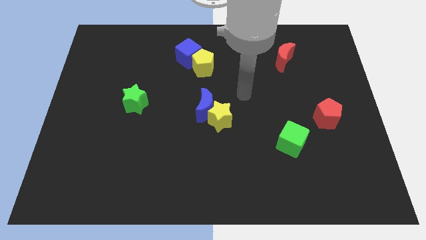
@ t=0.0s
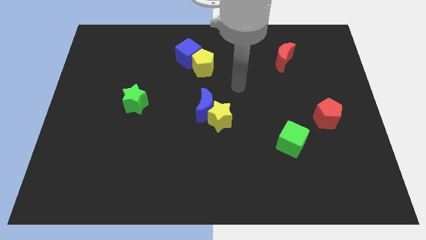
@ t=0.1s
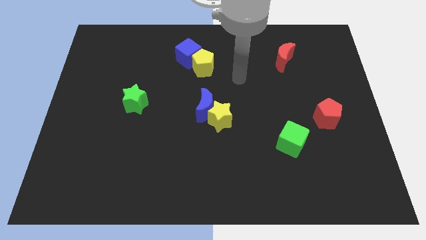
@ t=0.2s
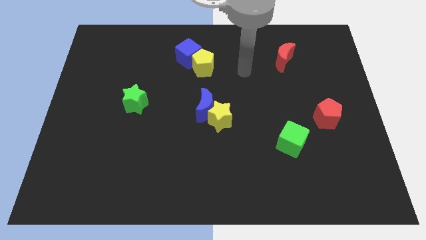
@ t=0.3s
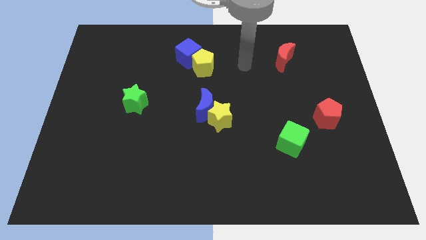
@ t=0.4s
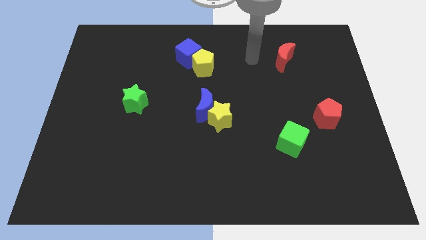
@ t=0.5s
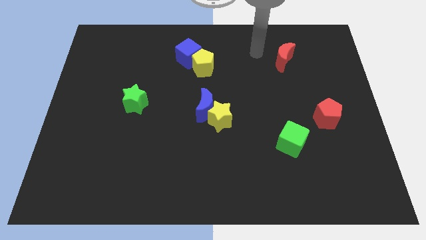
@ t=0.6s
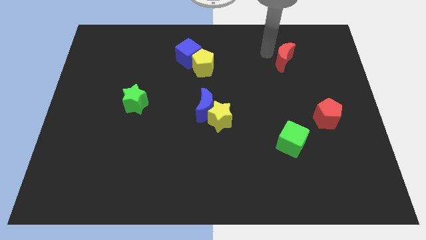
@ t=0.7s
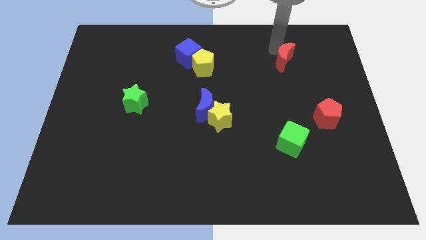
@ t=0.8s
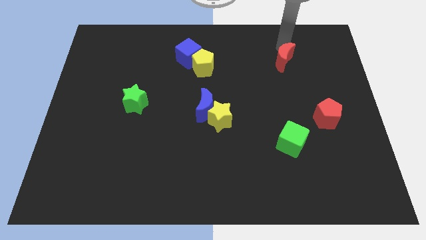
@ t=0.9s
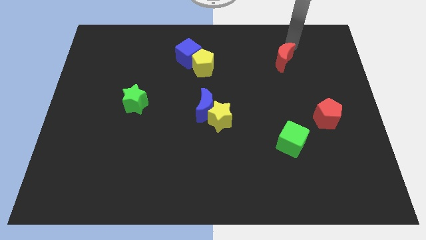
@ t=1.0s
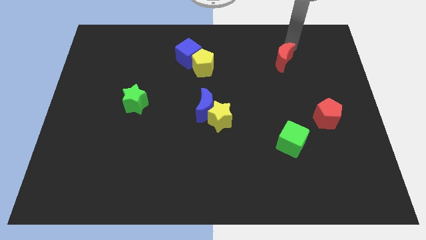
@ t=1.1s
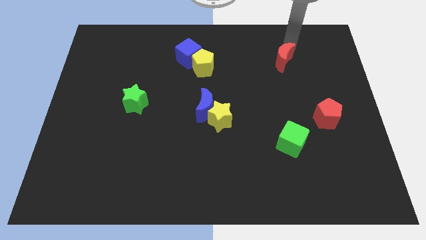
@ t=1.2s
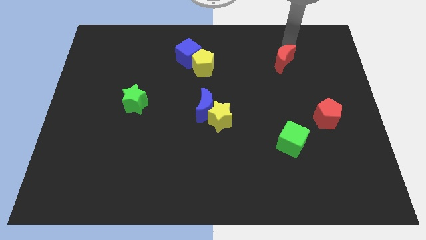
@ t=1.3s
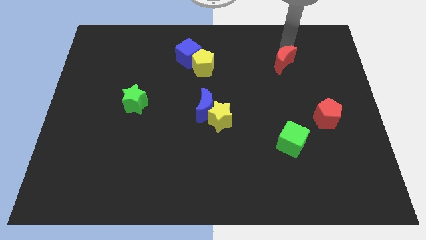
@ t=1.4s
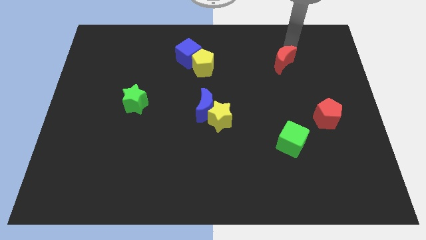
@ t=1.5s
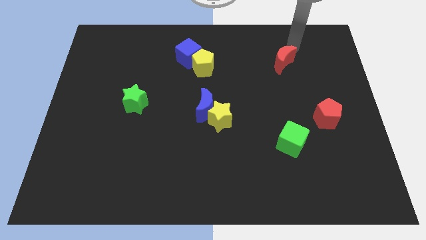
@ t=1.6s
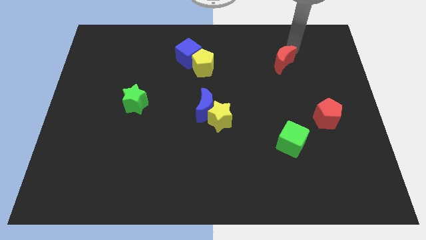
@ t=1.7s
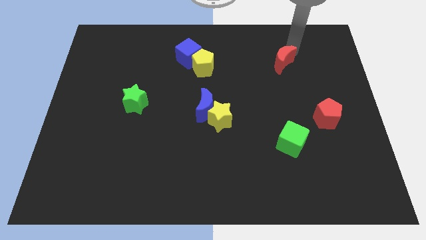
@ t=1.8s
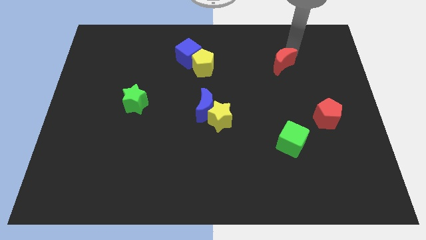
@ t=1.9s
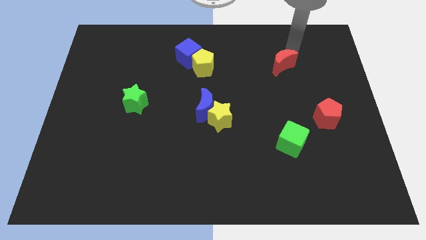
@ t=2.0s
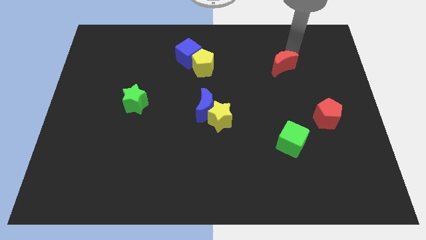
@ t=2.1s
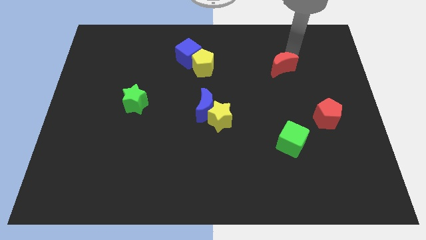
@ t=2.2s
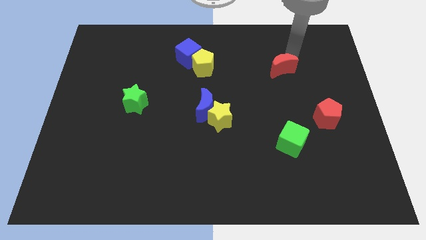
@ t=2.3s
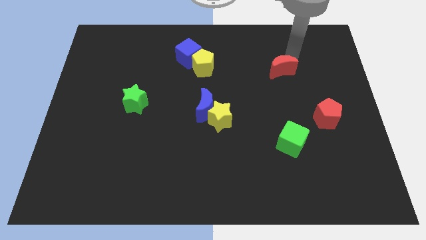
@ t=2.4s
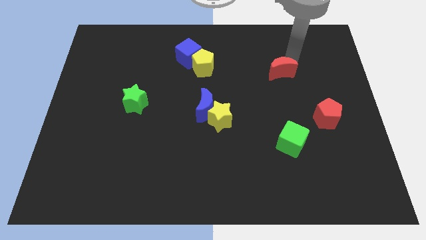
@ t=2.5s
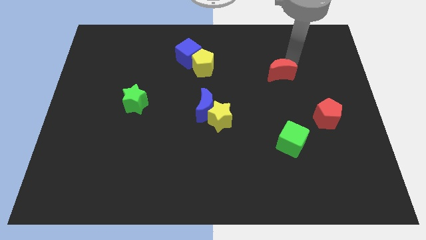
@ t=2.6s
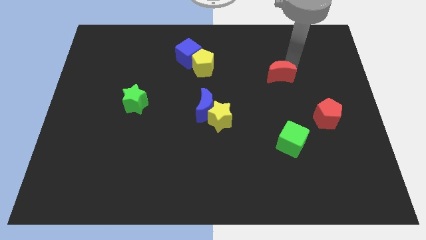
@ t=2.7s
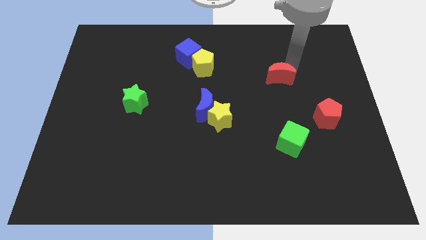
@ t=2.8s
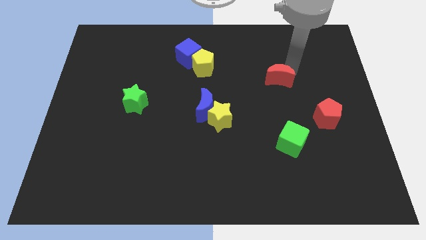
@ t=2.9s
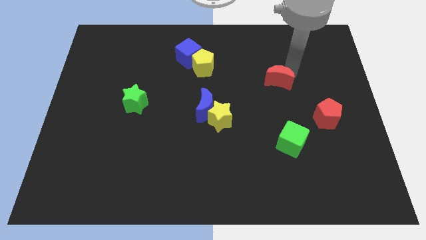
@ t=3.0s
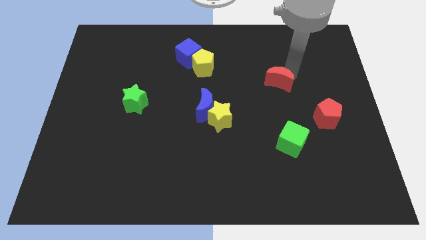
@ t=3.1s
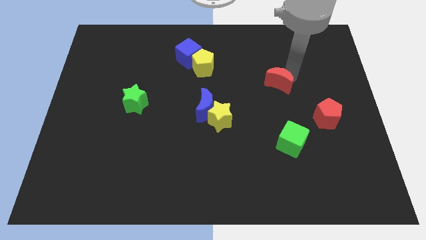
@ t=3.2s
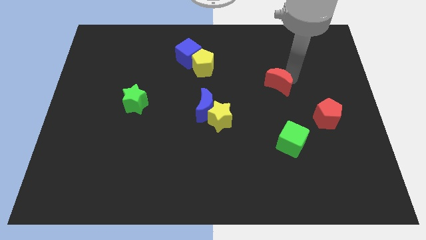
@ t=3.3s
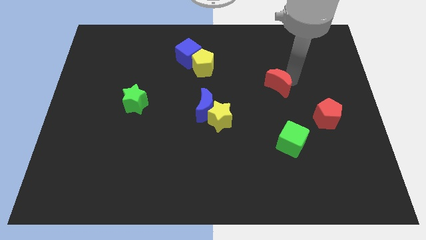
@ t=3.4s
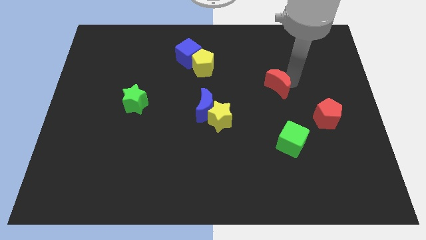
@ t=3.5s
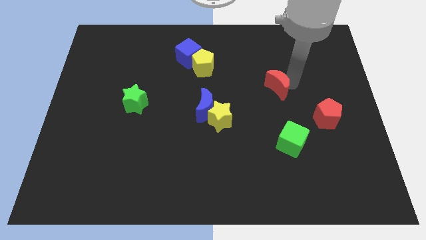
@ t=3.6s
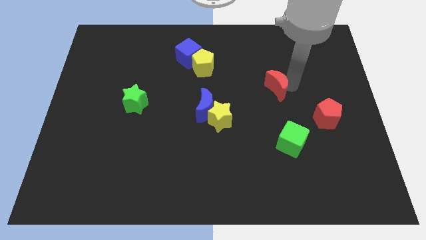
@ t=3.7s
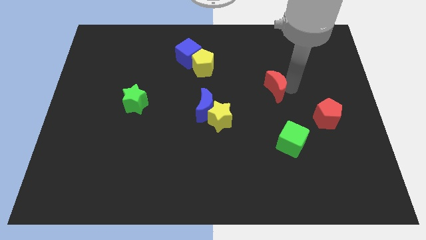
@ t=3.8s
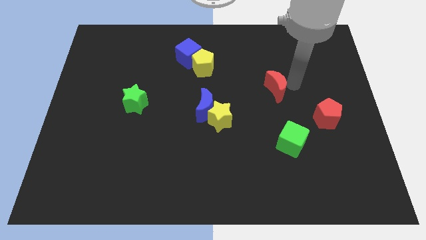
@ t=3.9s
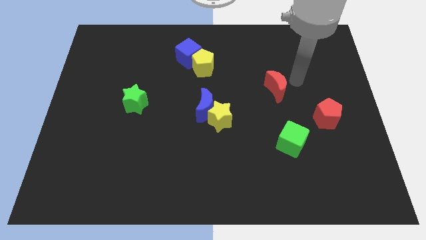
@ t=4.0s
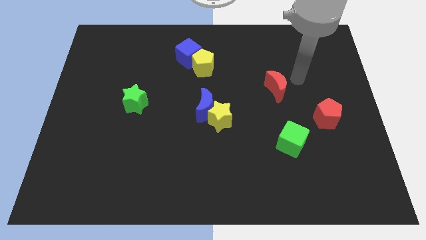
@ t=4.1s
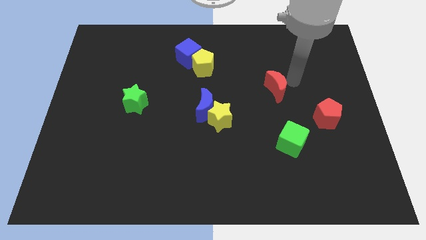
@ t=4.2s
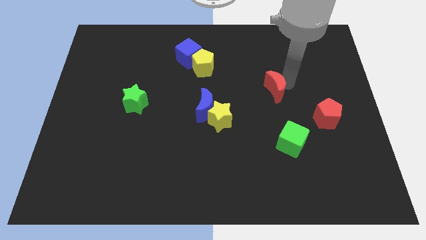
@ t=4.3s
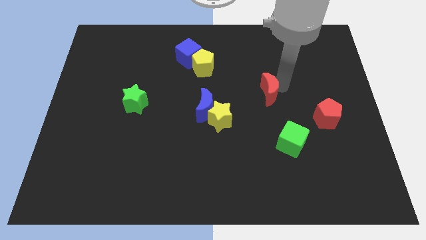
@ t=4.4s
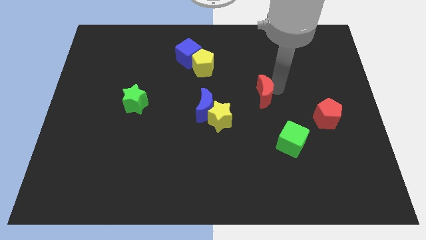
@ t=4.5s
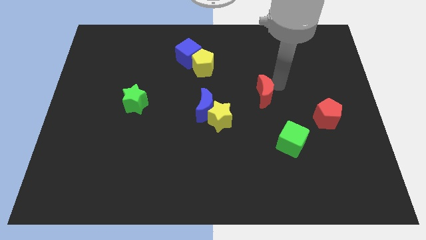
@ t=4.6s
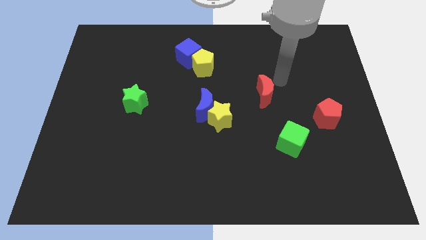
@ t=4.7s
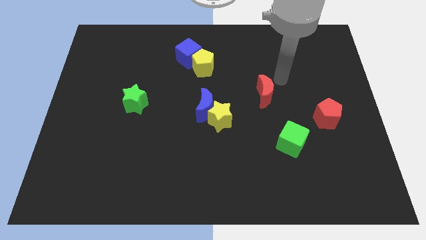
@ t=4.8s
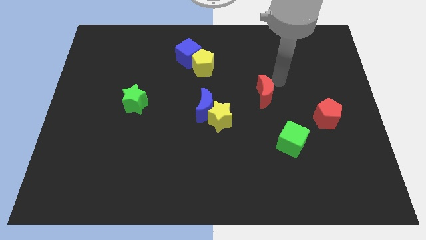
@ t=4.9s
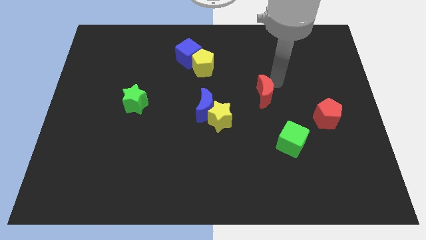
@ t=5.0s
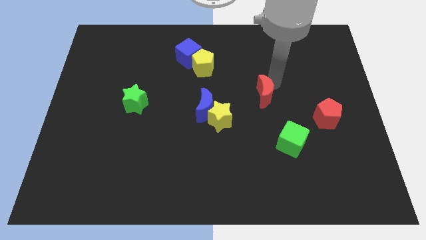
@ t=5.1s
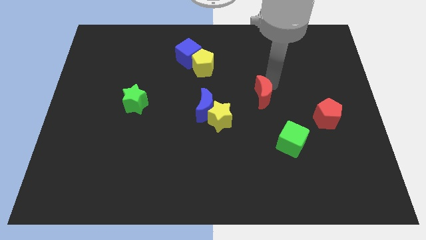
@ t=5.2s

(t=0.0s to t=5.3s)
put the red moon to the right side of the blue moon

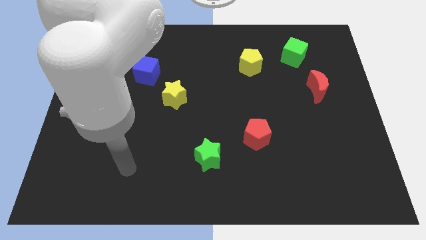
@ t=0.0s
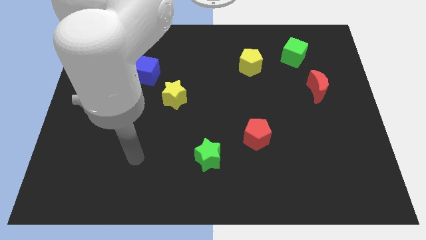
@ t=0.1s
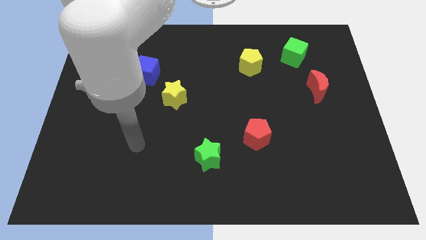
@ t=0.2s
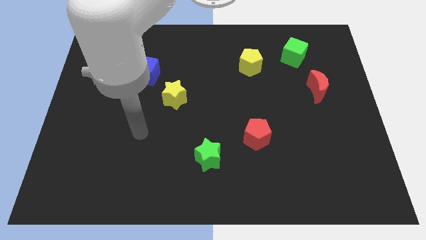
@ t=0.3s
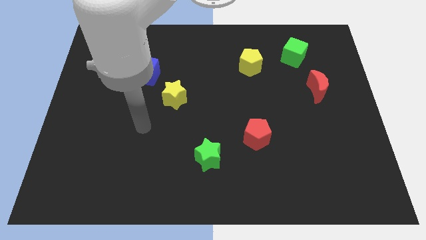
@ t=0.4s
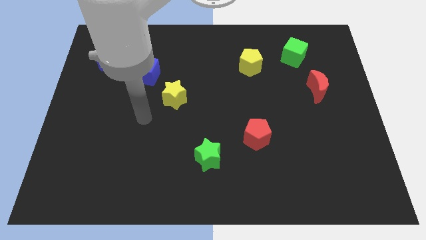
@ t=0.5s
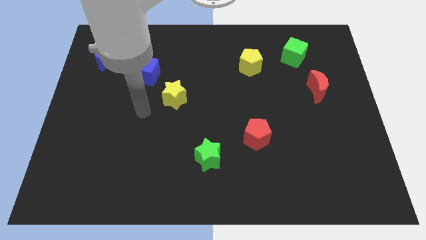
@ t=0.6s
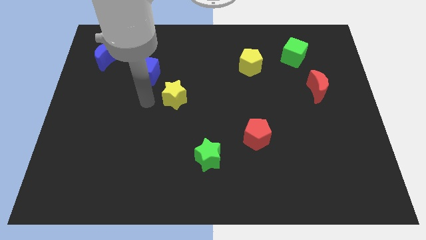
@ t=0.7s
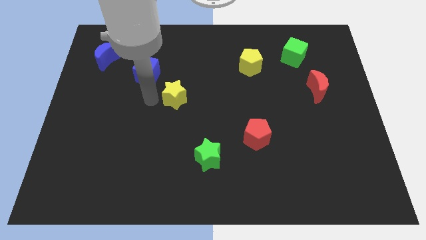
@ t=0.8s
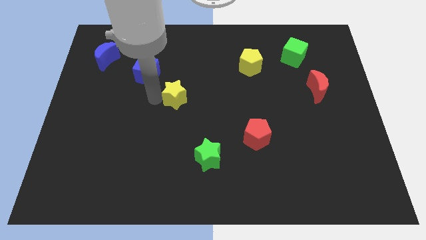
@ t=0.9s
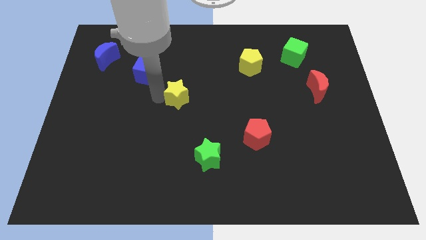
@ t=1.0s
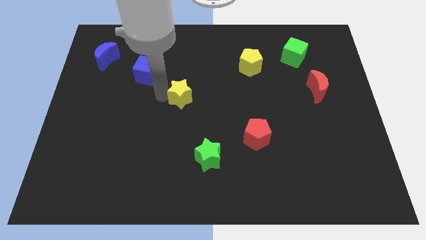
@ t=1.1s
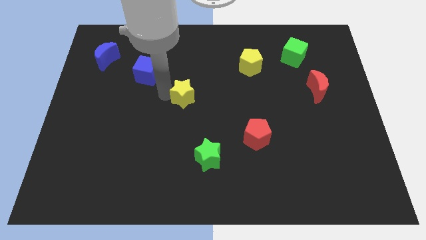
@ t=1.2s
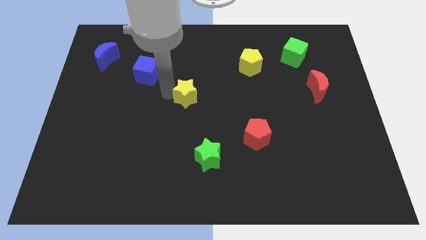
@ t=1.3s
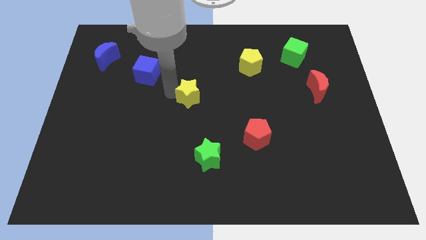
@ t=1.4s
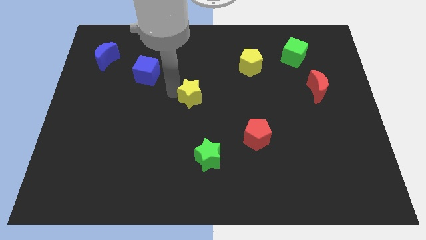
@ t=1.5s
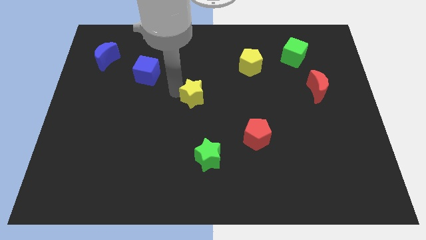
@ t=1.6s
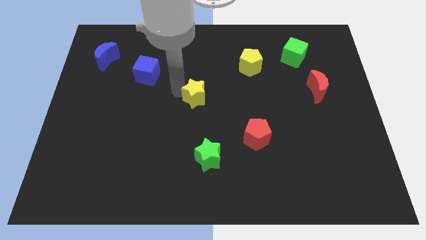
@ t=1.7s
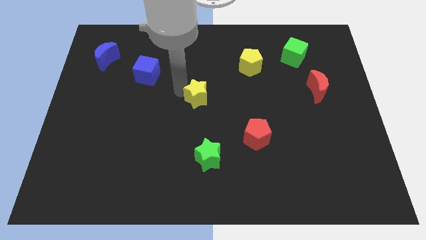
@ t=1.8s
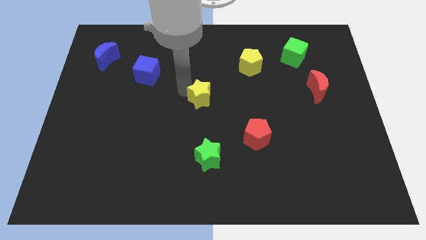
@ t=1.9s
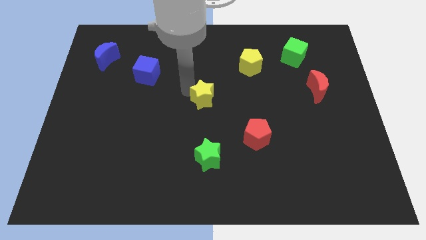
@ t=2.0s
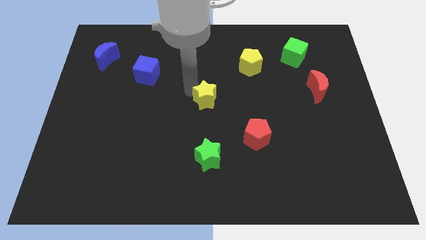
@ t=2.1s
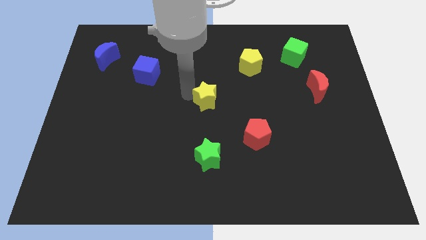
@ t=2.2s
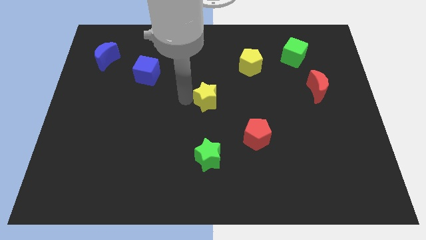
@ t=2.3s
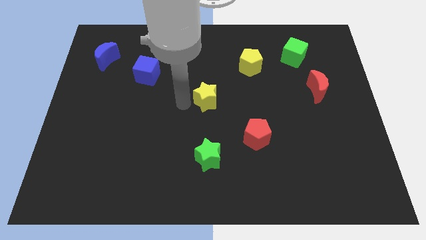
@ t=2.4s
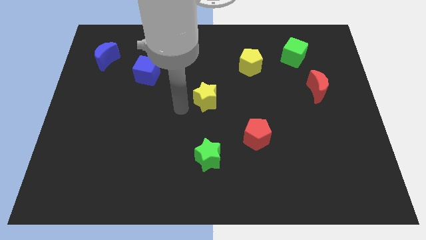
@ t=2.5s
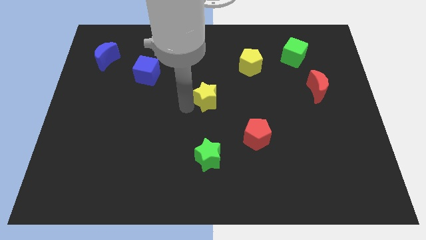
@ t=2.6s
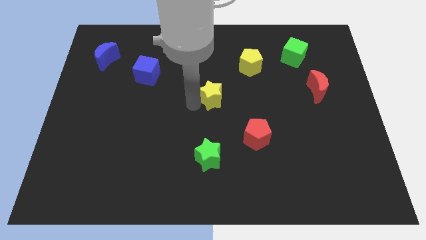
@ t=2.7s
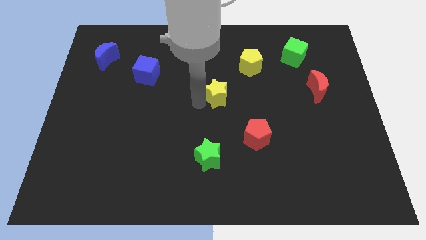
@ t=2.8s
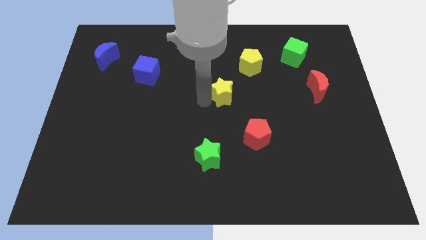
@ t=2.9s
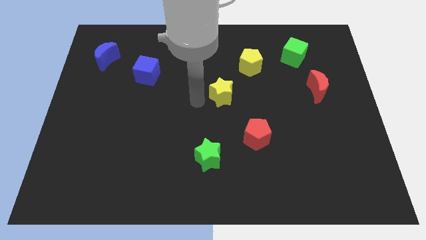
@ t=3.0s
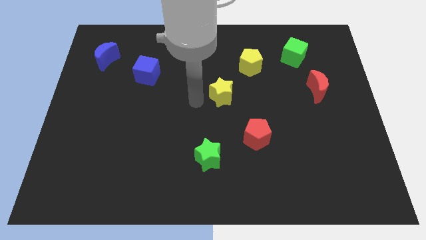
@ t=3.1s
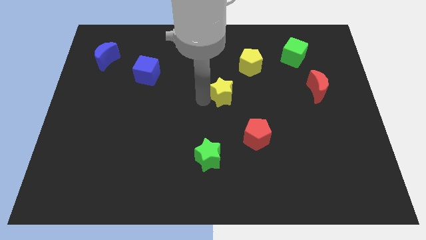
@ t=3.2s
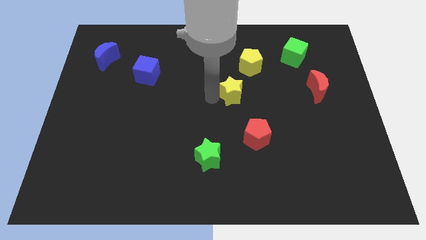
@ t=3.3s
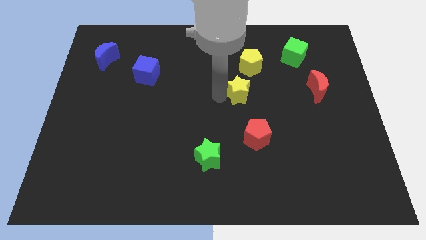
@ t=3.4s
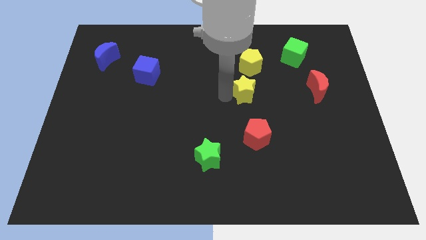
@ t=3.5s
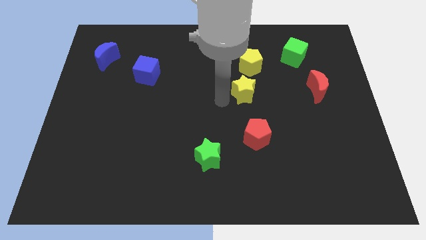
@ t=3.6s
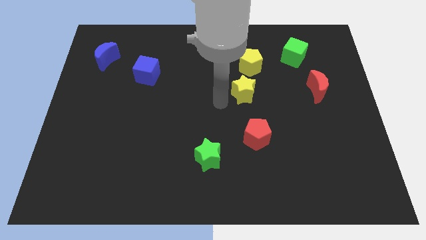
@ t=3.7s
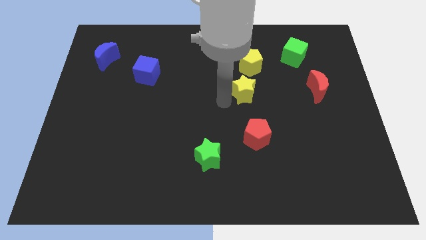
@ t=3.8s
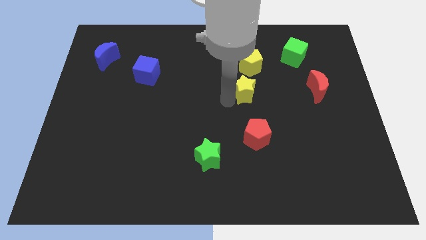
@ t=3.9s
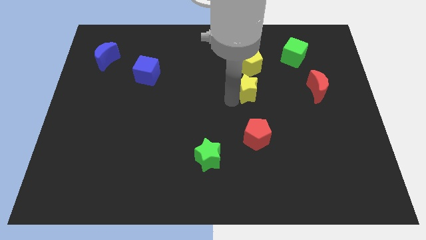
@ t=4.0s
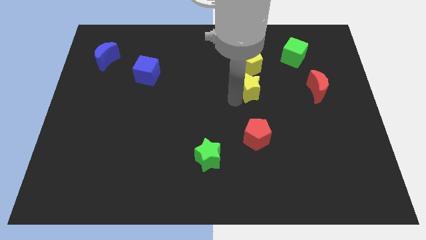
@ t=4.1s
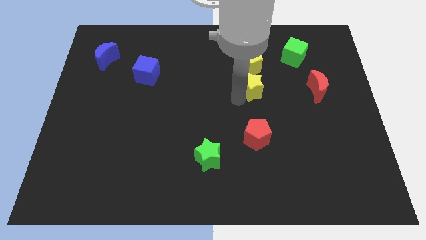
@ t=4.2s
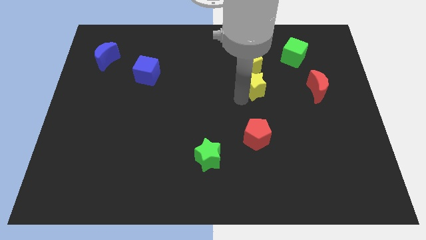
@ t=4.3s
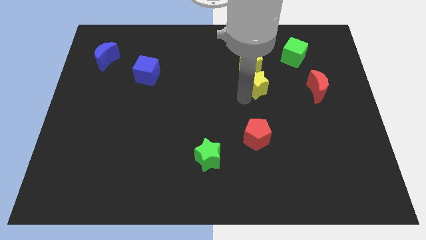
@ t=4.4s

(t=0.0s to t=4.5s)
move the yellow star to the bottom right side of the yellow pentagon